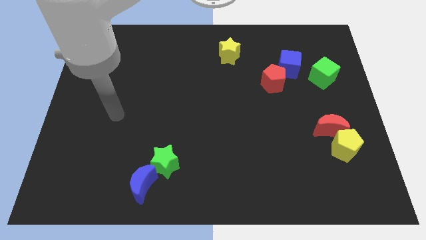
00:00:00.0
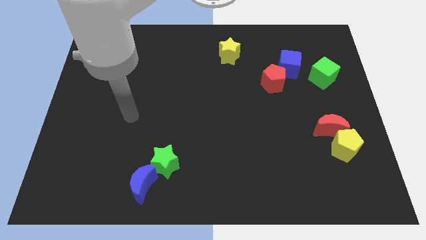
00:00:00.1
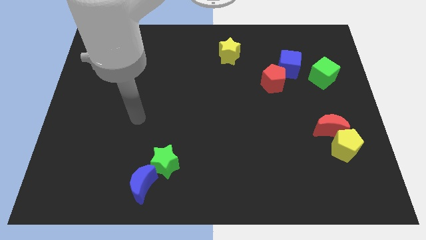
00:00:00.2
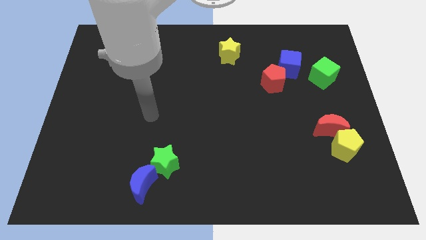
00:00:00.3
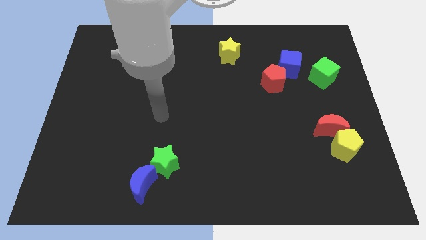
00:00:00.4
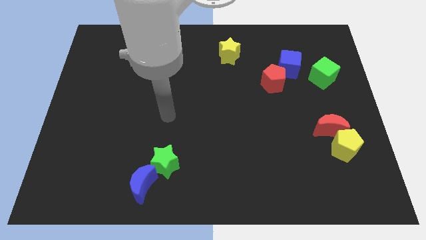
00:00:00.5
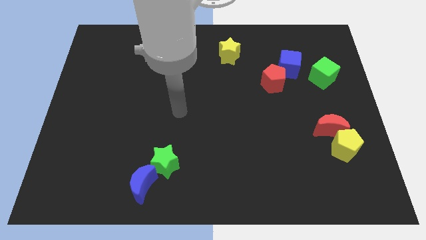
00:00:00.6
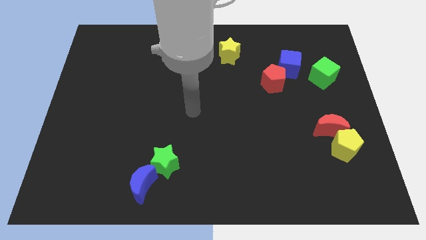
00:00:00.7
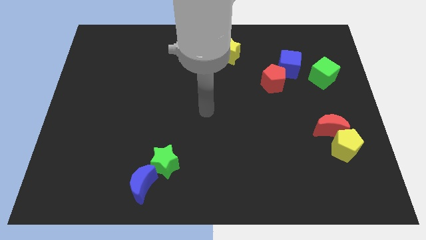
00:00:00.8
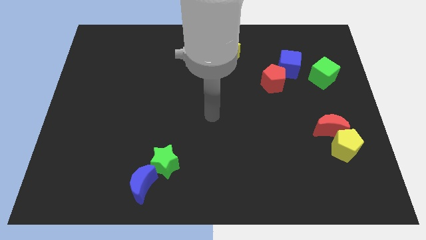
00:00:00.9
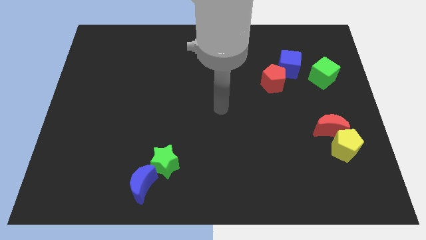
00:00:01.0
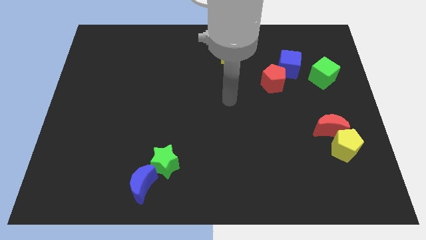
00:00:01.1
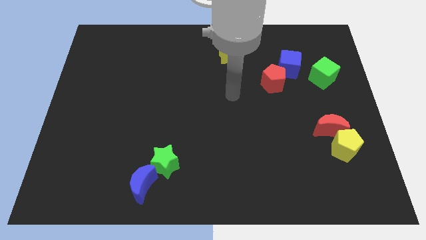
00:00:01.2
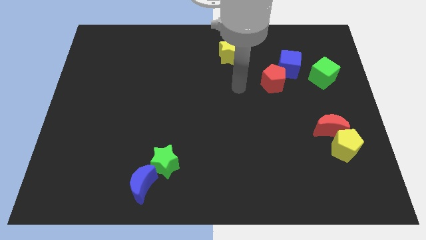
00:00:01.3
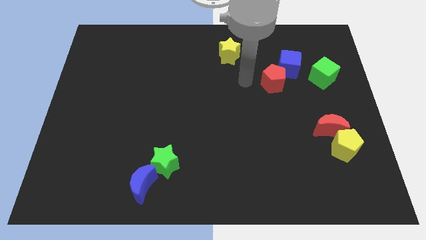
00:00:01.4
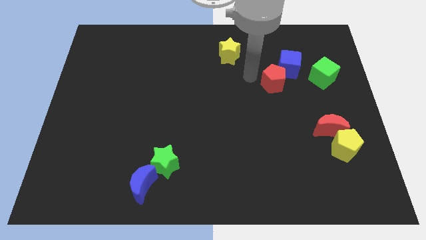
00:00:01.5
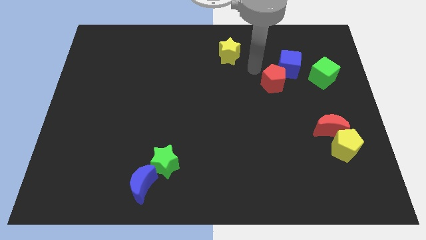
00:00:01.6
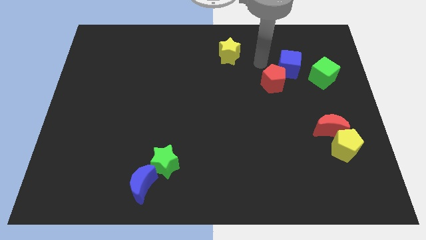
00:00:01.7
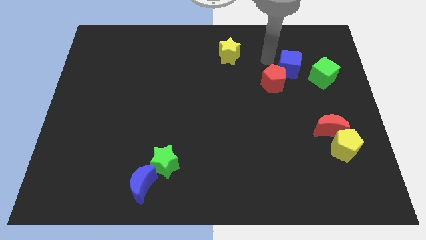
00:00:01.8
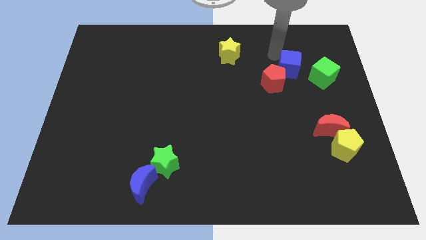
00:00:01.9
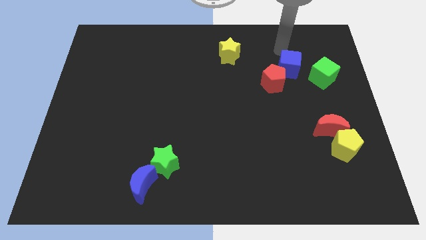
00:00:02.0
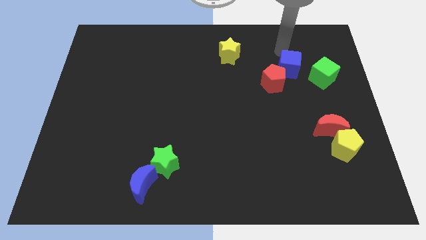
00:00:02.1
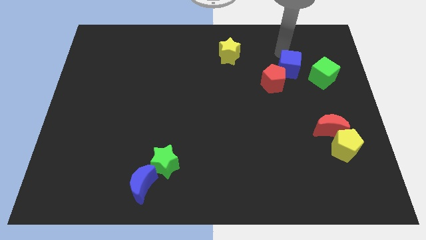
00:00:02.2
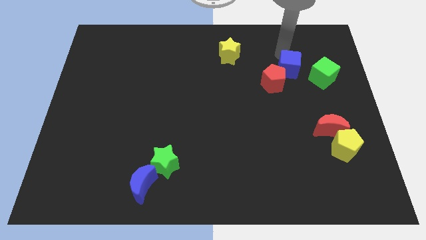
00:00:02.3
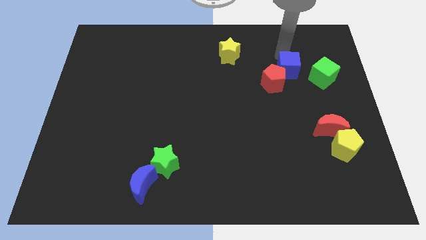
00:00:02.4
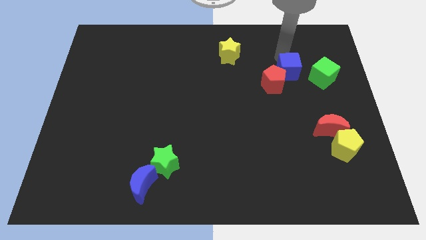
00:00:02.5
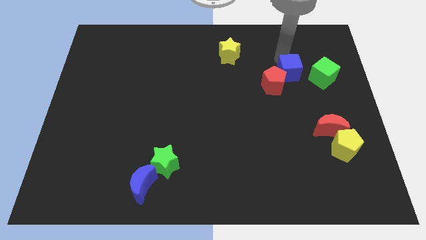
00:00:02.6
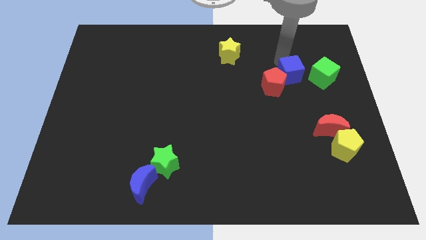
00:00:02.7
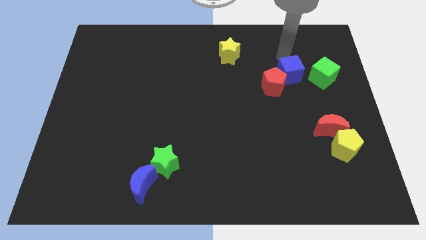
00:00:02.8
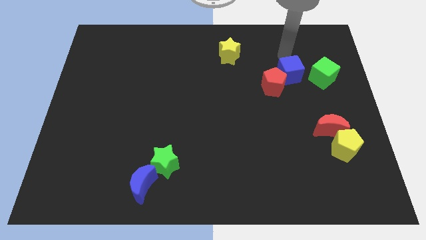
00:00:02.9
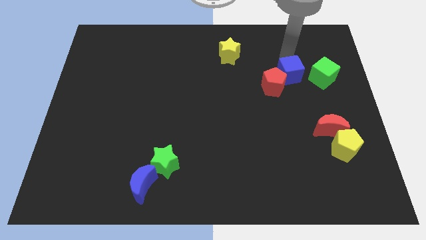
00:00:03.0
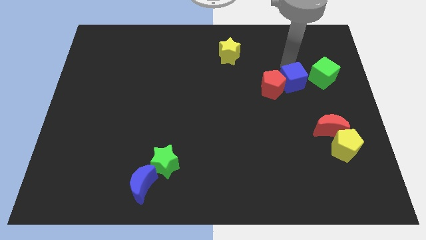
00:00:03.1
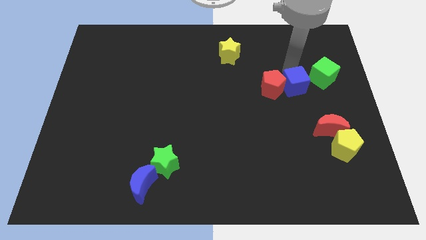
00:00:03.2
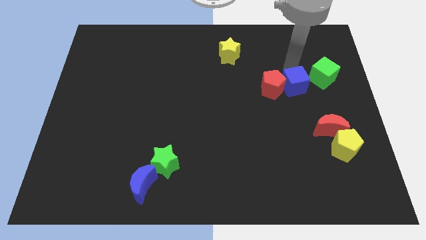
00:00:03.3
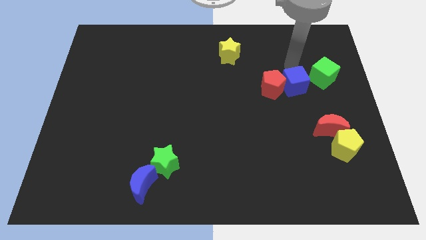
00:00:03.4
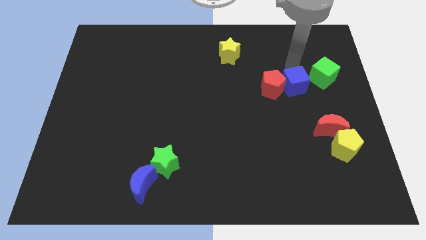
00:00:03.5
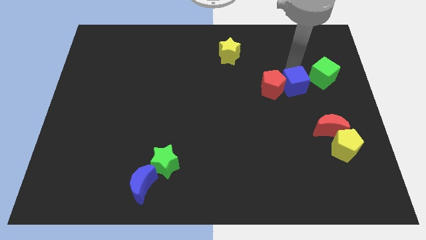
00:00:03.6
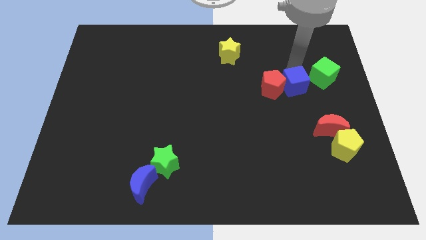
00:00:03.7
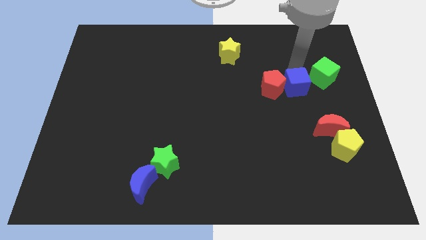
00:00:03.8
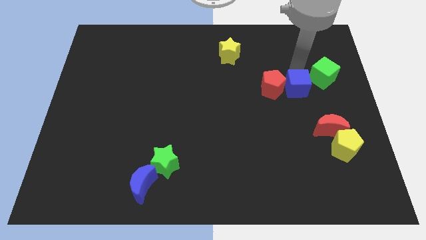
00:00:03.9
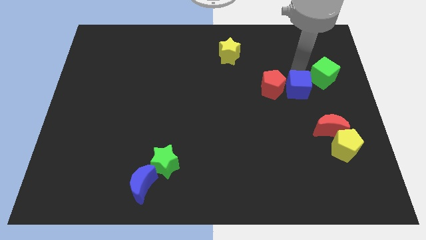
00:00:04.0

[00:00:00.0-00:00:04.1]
slide the blue cube somewhat downwards

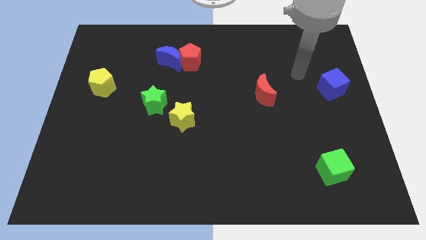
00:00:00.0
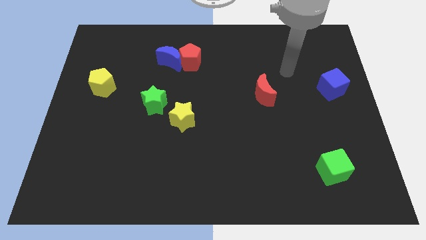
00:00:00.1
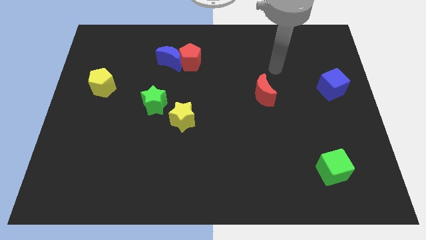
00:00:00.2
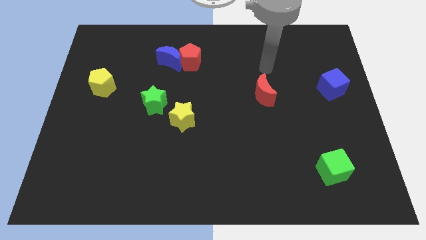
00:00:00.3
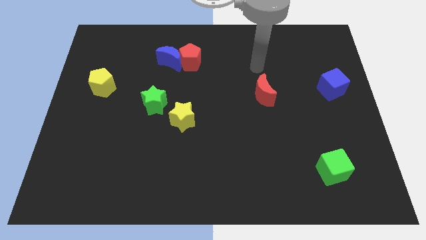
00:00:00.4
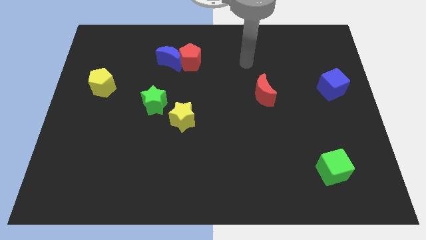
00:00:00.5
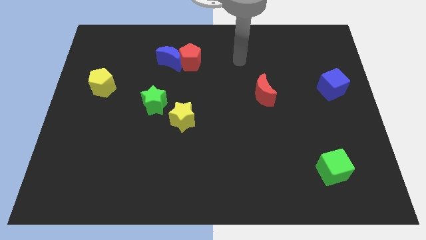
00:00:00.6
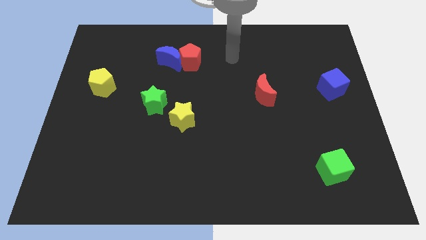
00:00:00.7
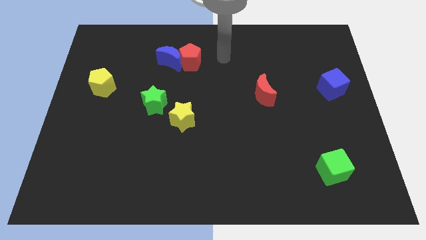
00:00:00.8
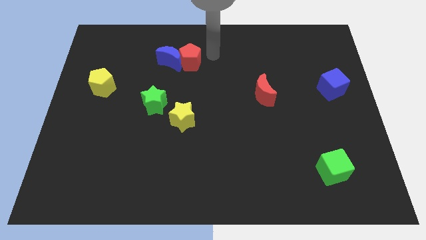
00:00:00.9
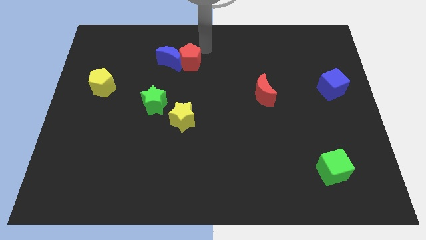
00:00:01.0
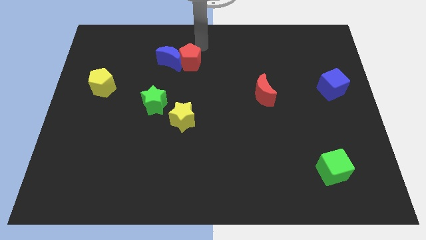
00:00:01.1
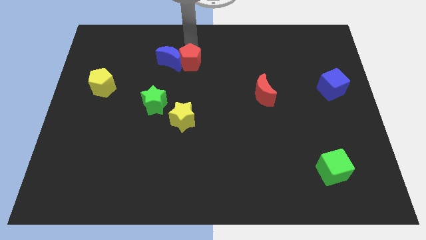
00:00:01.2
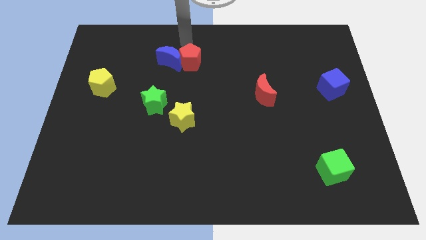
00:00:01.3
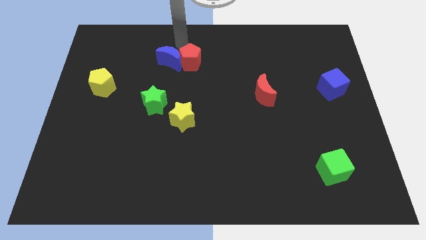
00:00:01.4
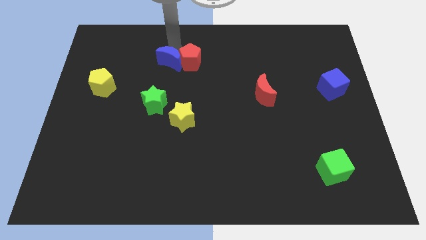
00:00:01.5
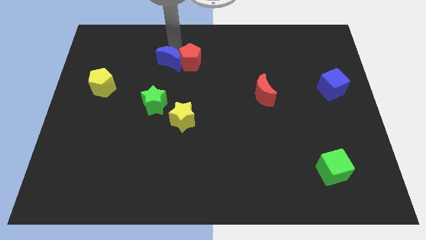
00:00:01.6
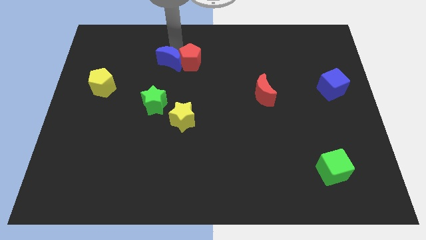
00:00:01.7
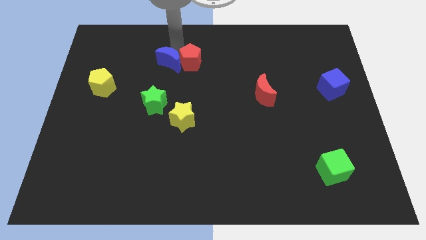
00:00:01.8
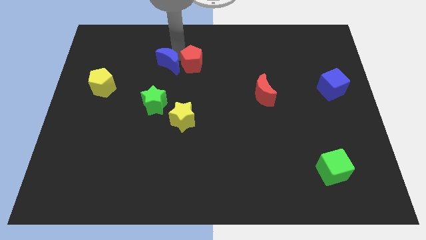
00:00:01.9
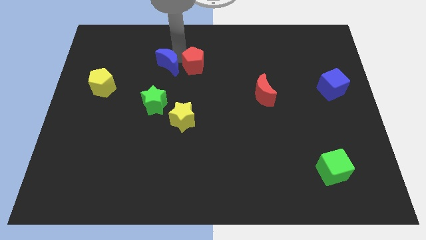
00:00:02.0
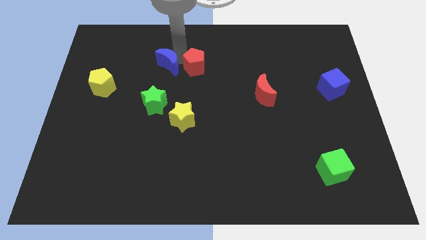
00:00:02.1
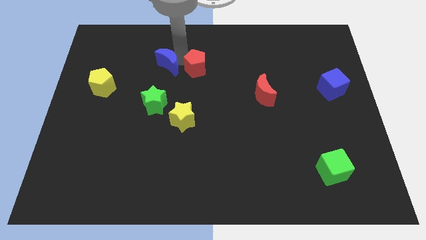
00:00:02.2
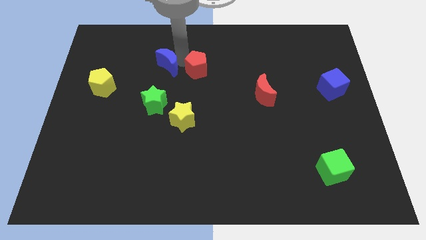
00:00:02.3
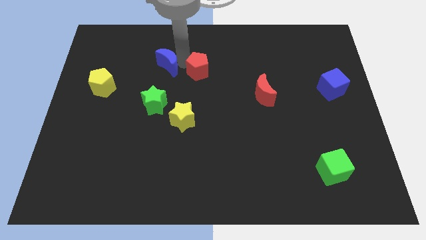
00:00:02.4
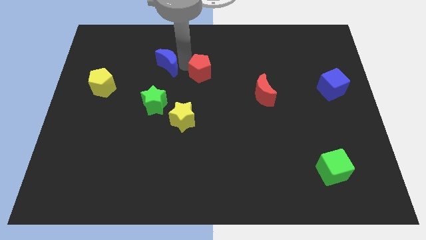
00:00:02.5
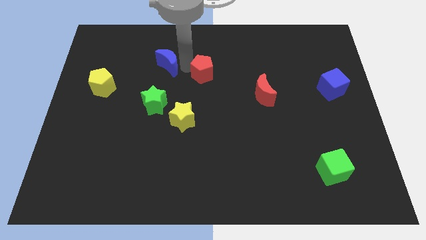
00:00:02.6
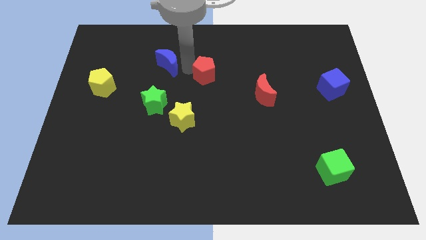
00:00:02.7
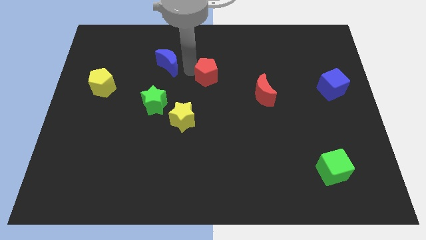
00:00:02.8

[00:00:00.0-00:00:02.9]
move the red pentagon down and then right somewhat

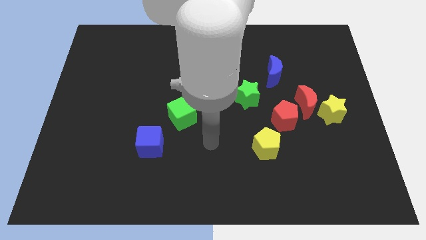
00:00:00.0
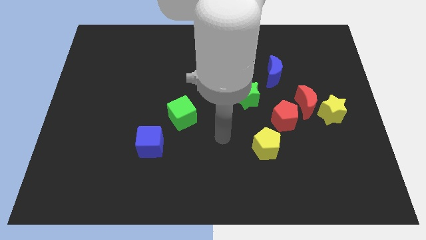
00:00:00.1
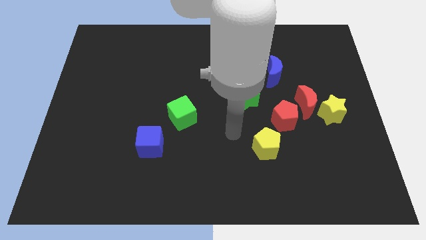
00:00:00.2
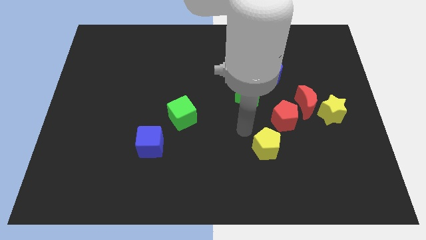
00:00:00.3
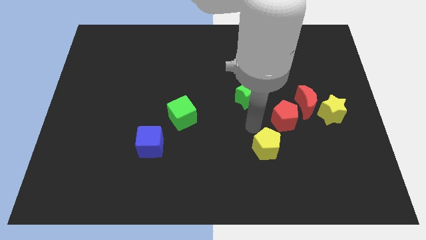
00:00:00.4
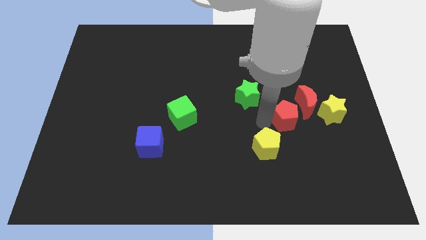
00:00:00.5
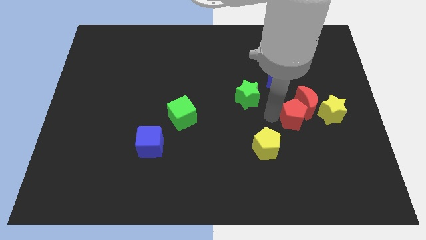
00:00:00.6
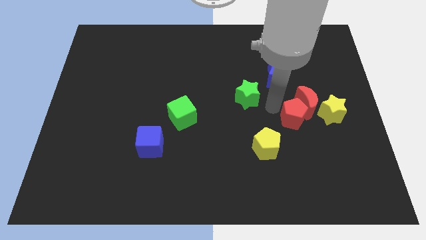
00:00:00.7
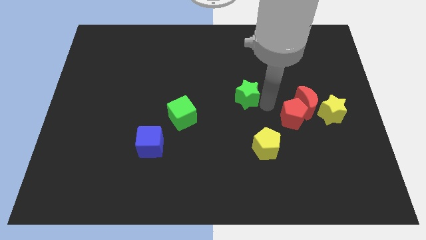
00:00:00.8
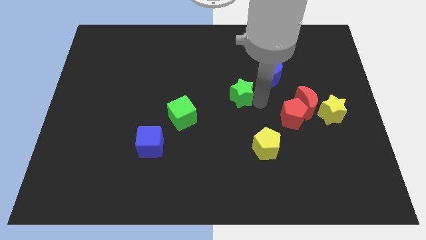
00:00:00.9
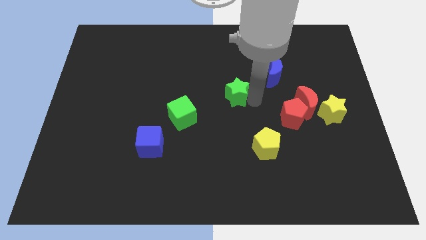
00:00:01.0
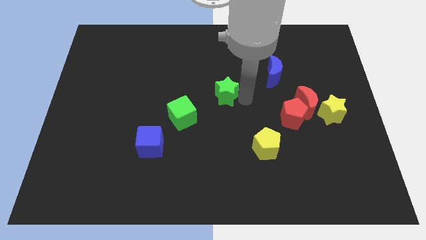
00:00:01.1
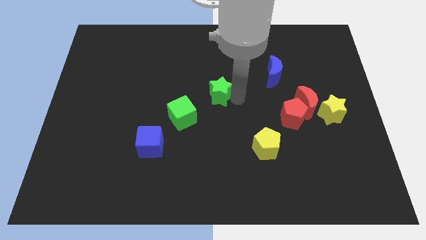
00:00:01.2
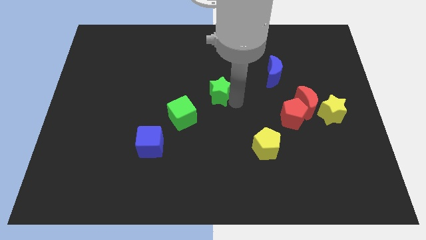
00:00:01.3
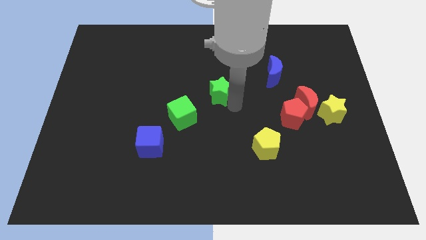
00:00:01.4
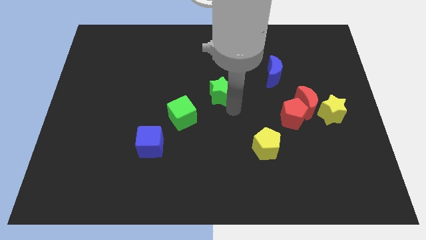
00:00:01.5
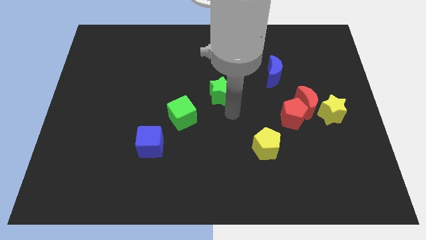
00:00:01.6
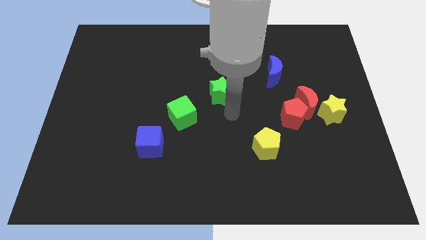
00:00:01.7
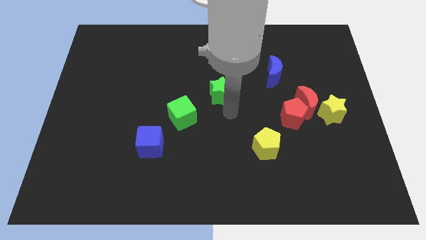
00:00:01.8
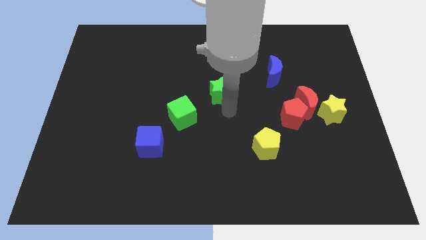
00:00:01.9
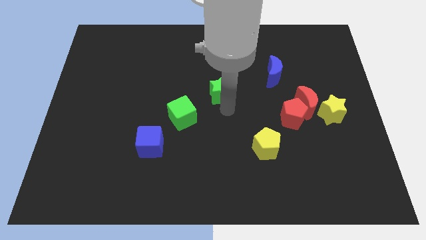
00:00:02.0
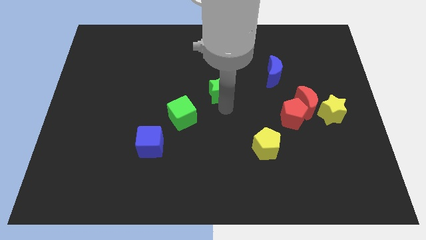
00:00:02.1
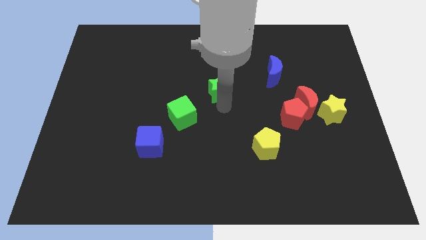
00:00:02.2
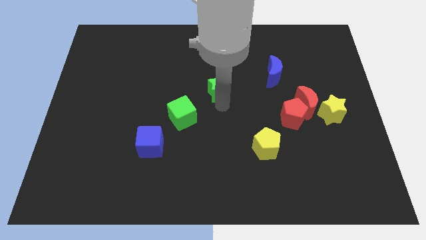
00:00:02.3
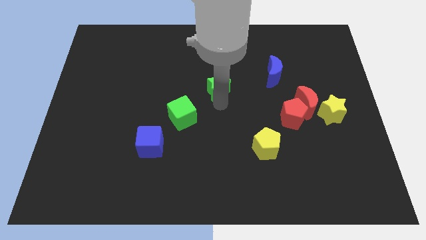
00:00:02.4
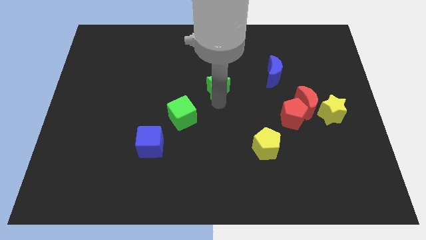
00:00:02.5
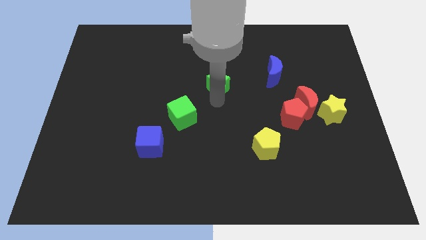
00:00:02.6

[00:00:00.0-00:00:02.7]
slide the green star diagonally upwards and to the left a little
